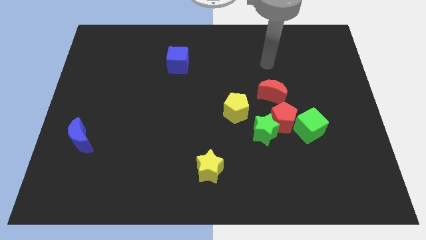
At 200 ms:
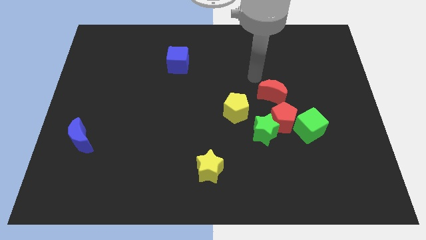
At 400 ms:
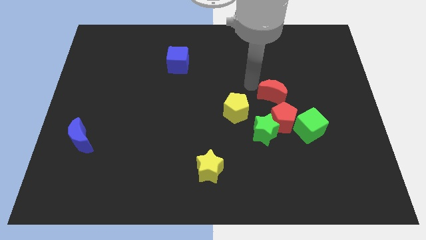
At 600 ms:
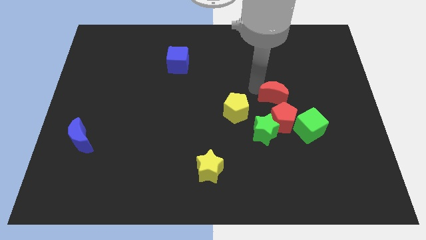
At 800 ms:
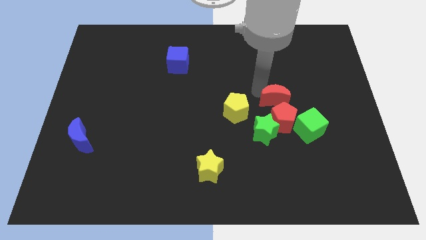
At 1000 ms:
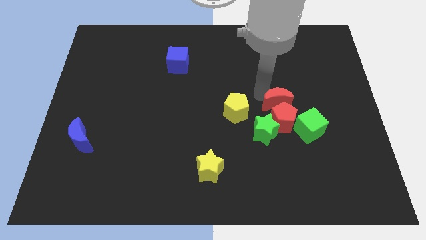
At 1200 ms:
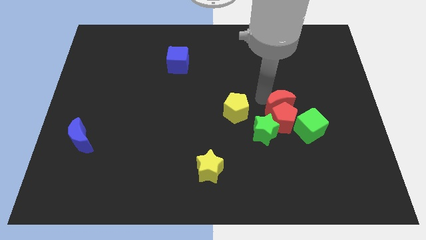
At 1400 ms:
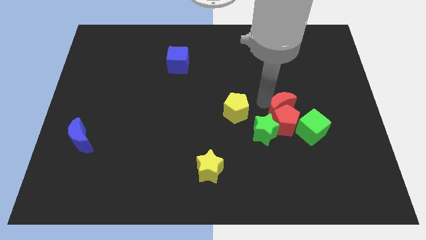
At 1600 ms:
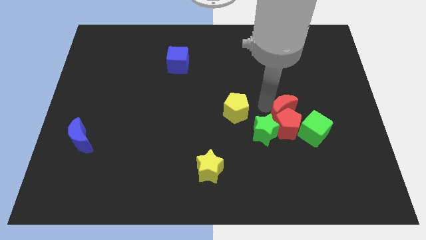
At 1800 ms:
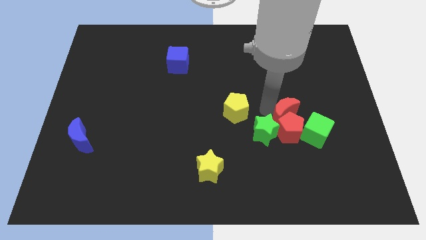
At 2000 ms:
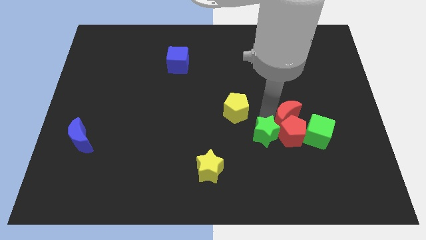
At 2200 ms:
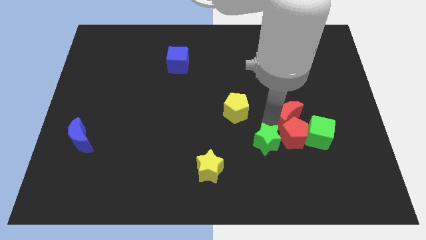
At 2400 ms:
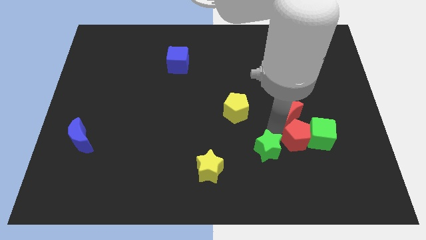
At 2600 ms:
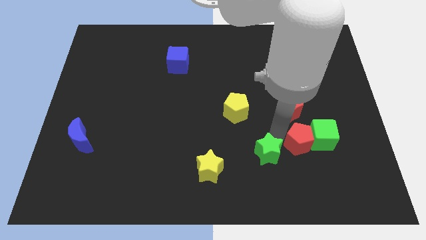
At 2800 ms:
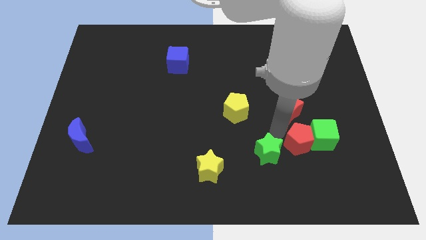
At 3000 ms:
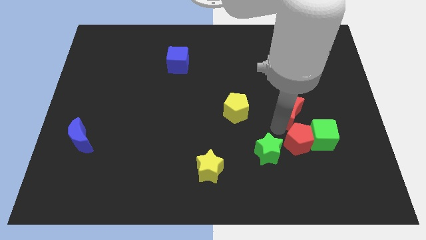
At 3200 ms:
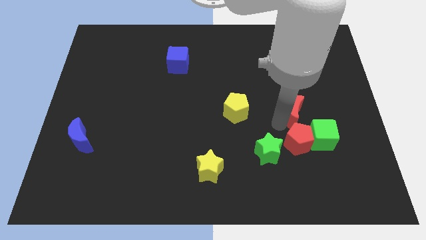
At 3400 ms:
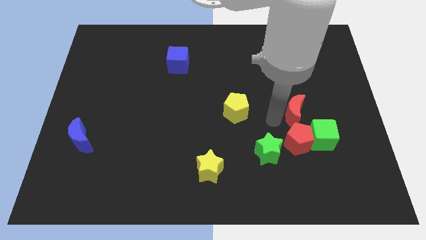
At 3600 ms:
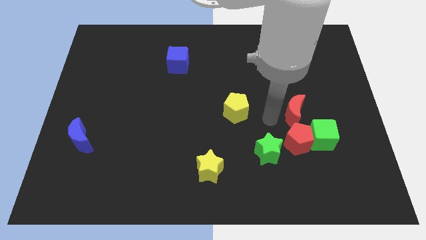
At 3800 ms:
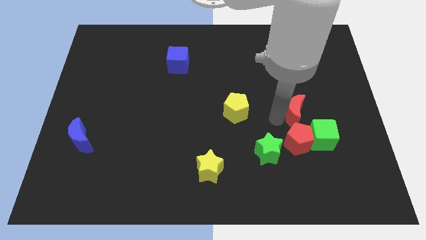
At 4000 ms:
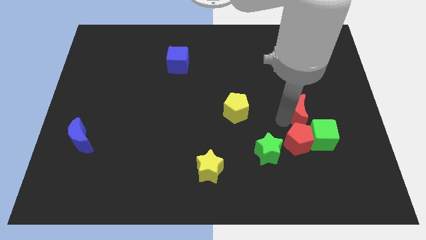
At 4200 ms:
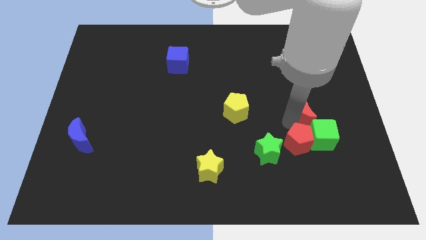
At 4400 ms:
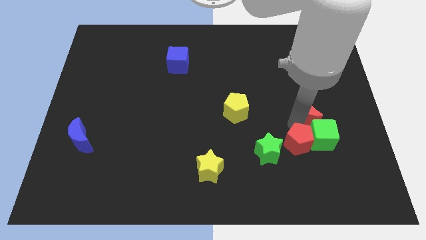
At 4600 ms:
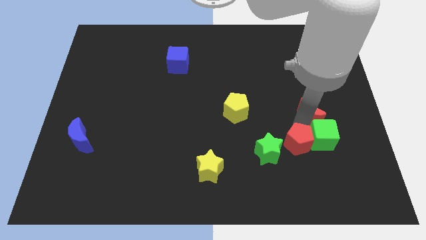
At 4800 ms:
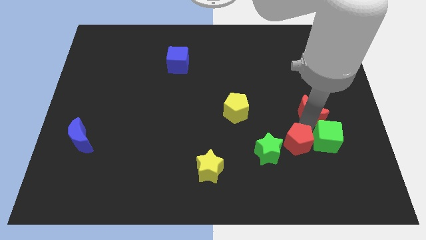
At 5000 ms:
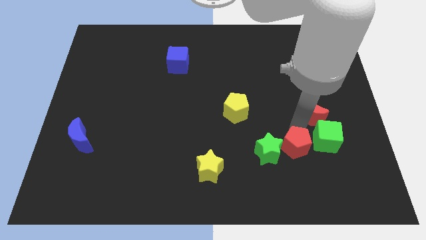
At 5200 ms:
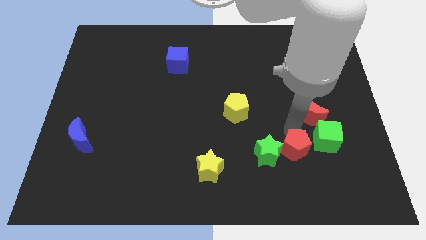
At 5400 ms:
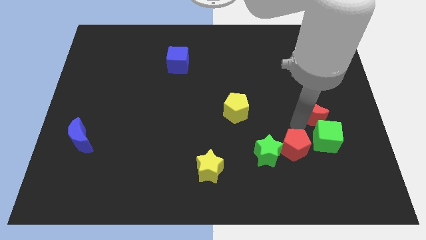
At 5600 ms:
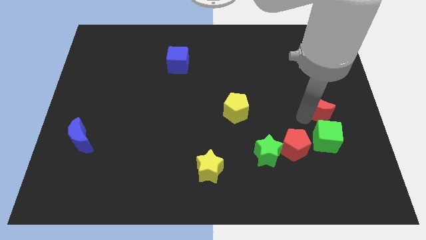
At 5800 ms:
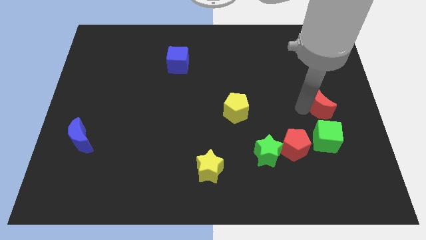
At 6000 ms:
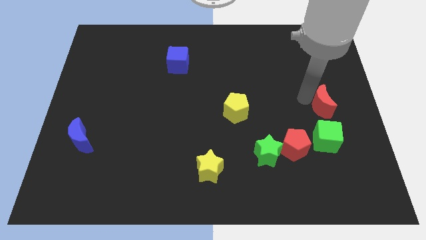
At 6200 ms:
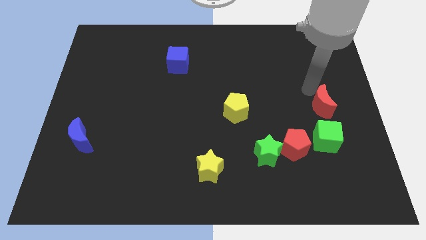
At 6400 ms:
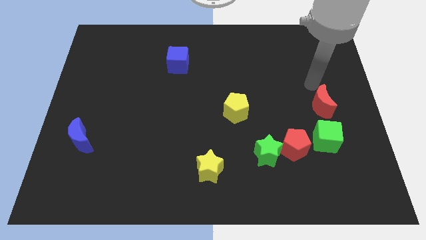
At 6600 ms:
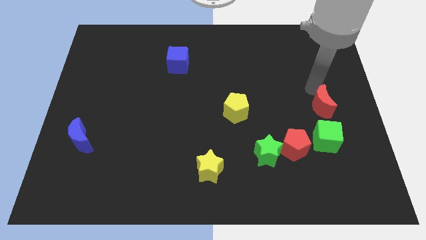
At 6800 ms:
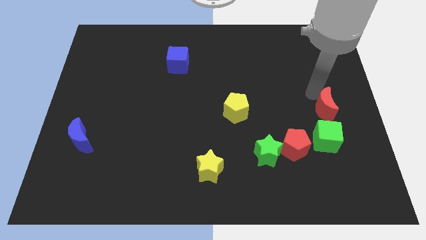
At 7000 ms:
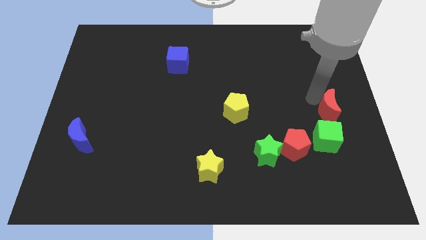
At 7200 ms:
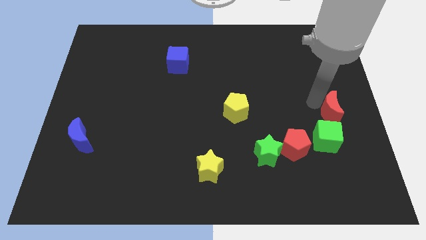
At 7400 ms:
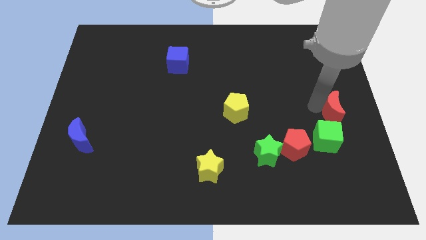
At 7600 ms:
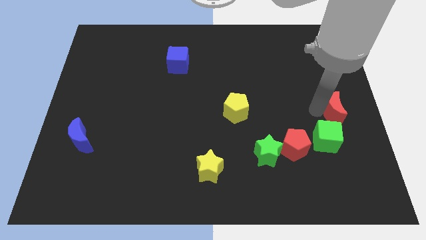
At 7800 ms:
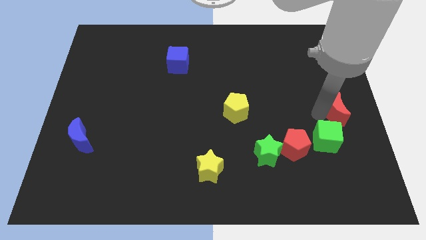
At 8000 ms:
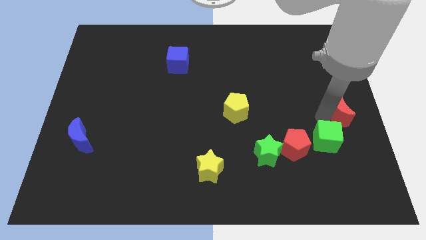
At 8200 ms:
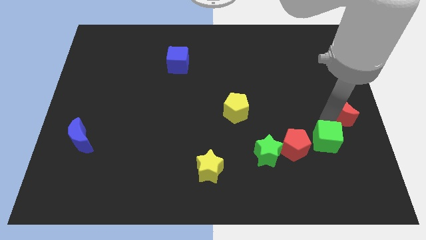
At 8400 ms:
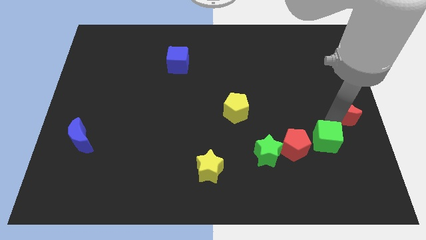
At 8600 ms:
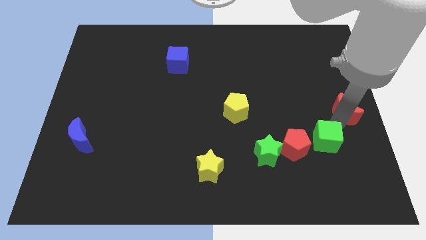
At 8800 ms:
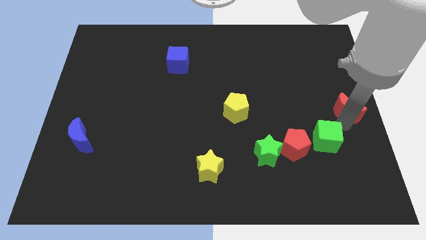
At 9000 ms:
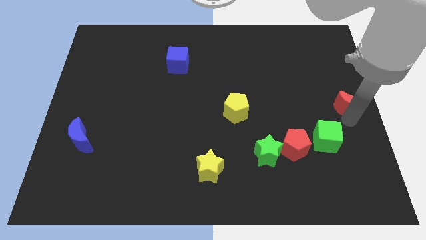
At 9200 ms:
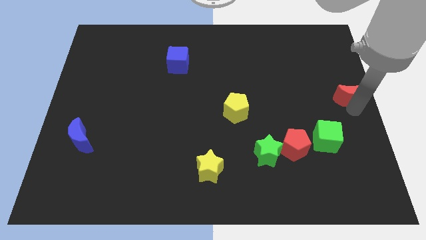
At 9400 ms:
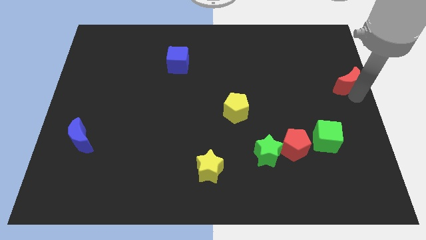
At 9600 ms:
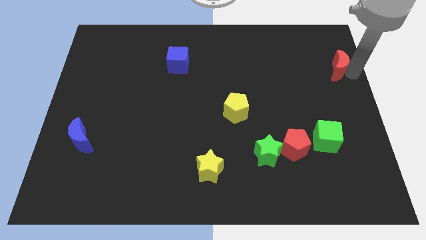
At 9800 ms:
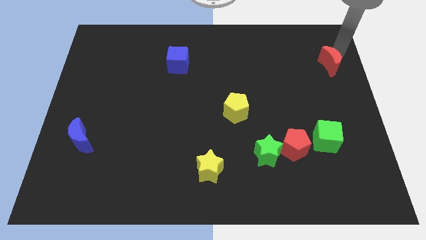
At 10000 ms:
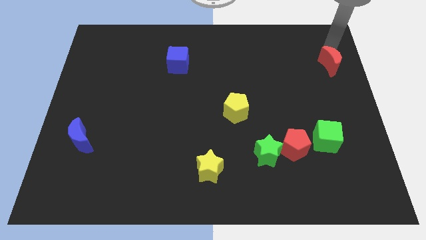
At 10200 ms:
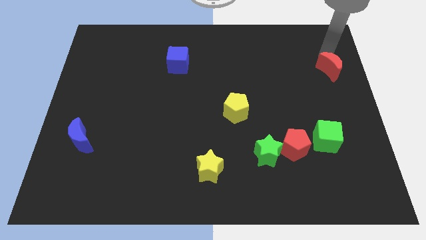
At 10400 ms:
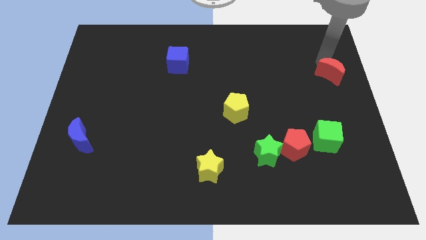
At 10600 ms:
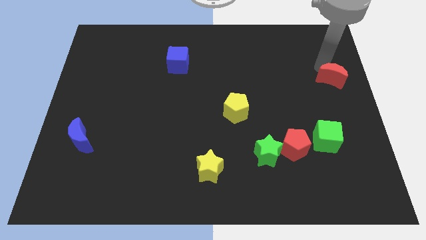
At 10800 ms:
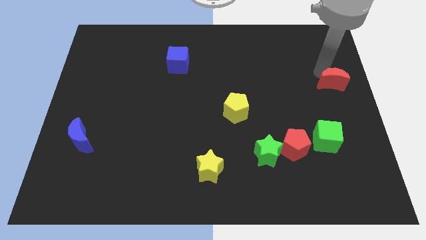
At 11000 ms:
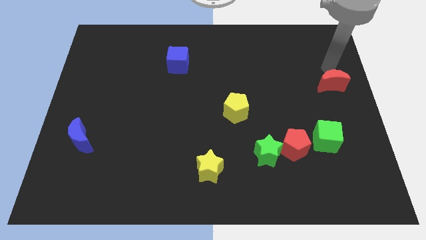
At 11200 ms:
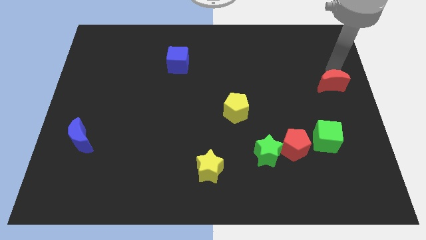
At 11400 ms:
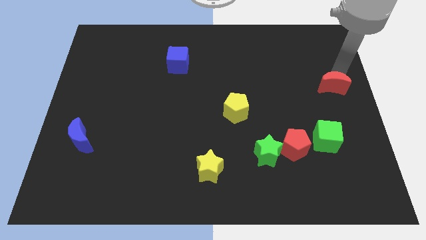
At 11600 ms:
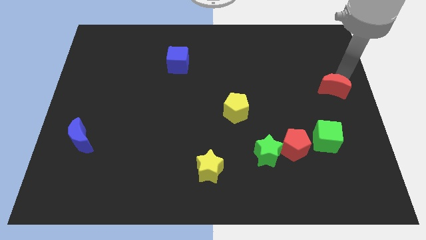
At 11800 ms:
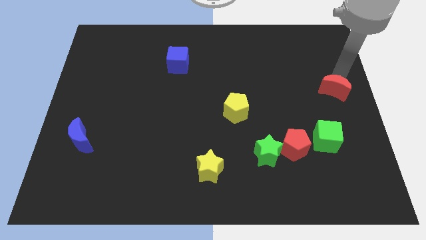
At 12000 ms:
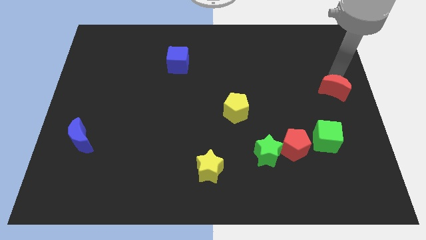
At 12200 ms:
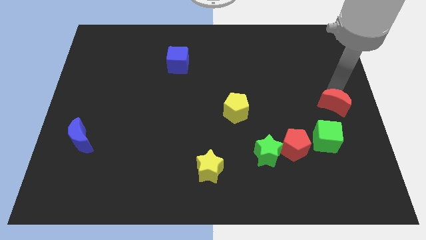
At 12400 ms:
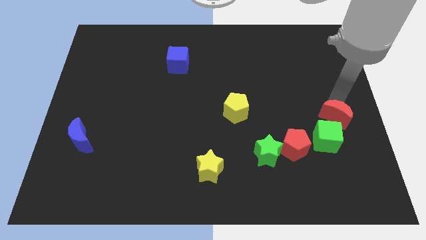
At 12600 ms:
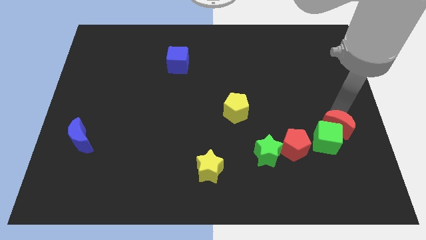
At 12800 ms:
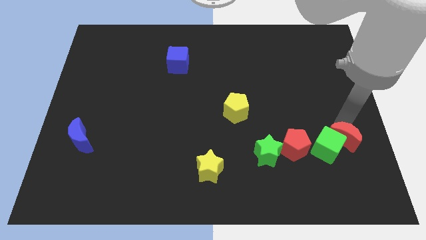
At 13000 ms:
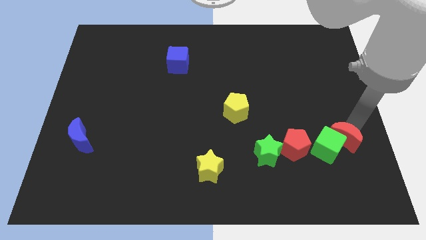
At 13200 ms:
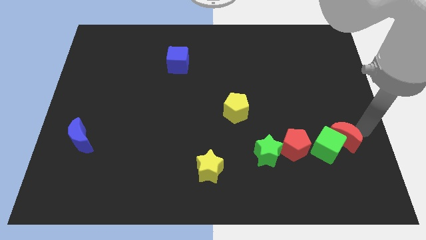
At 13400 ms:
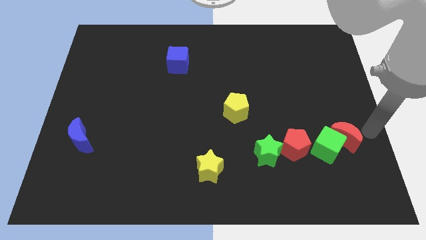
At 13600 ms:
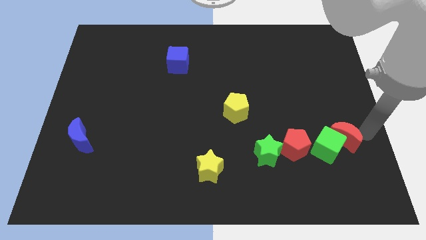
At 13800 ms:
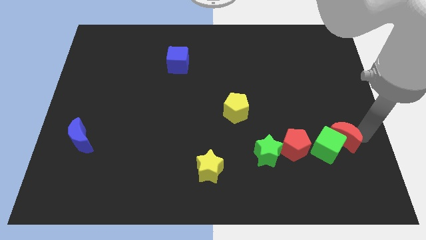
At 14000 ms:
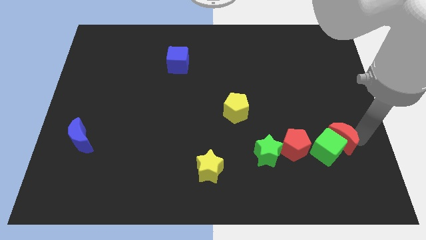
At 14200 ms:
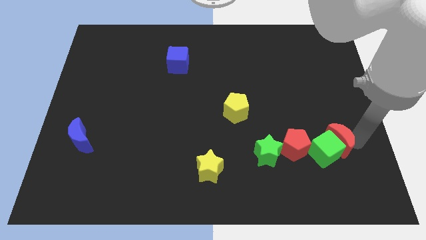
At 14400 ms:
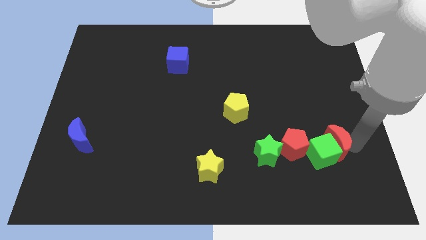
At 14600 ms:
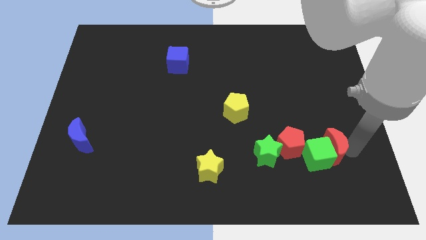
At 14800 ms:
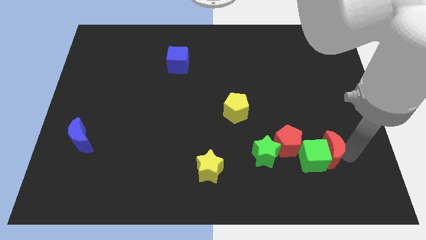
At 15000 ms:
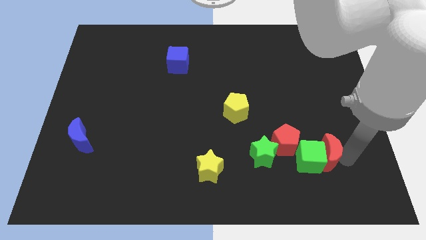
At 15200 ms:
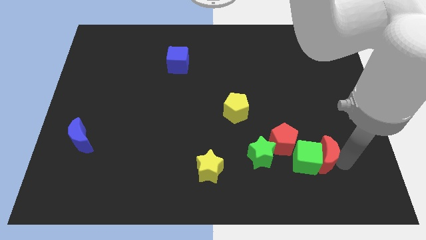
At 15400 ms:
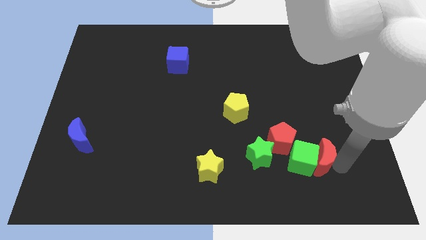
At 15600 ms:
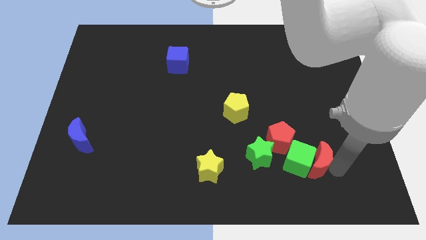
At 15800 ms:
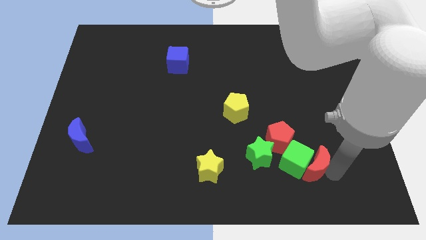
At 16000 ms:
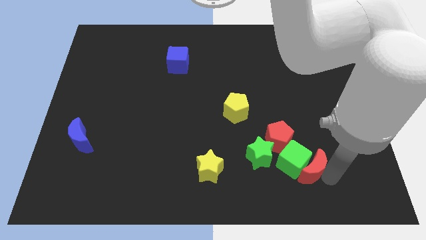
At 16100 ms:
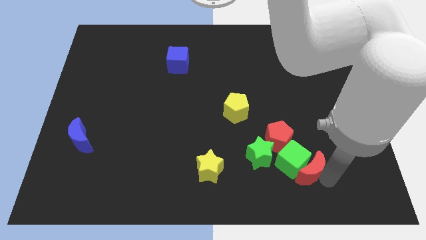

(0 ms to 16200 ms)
put the red moon to the bottom right of the green star
